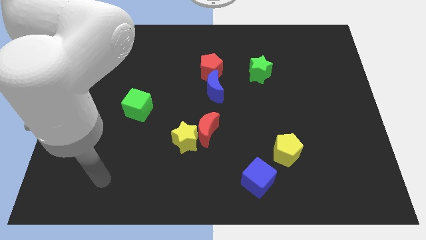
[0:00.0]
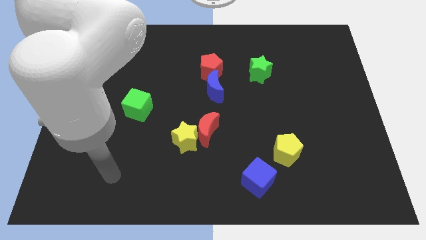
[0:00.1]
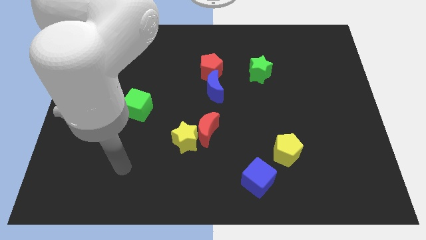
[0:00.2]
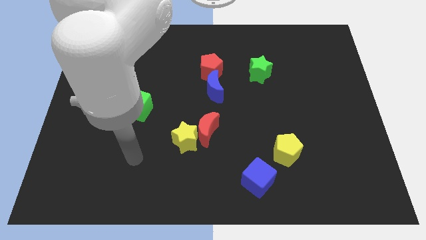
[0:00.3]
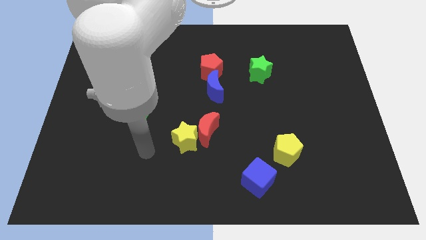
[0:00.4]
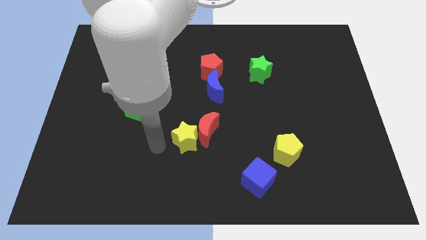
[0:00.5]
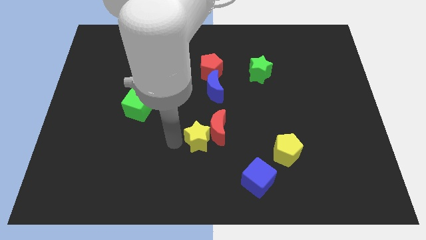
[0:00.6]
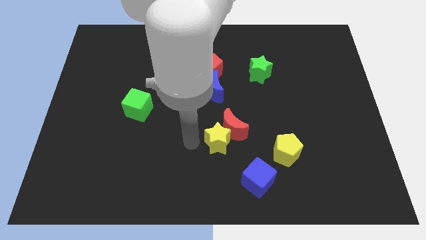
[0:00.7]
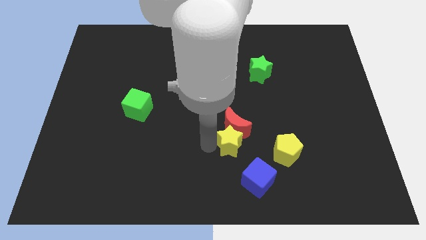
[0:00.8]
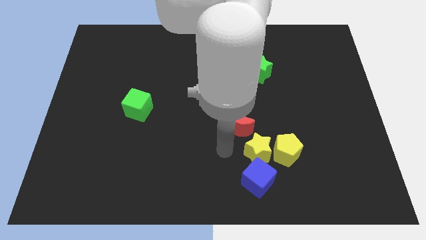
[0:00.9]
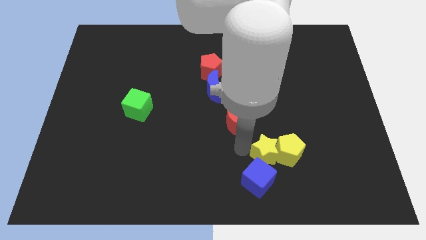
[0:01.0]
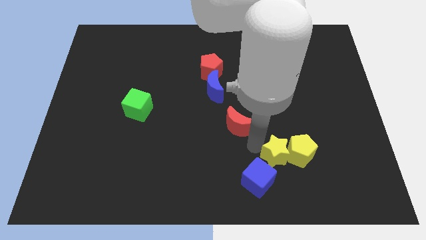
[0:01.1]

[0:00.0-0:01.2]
separate the red moon from the yellow star

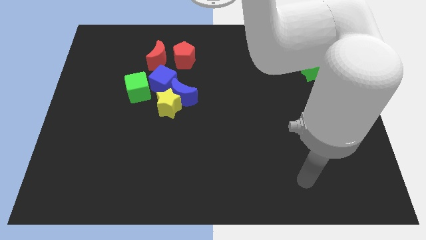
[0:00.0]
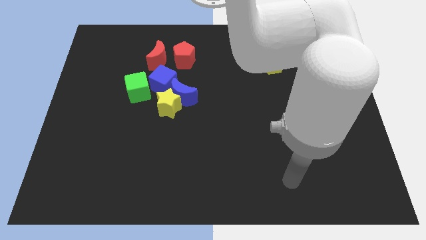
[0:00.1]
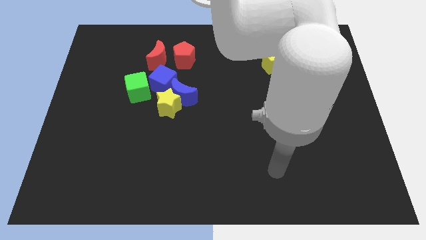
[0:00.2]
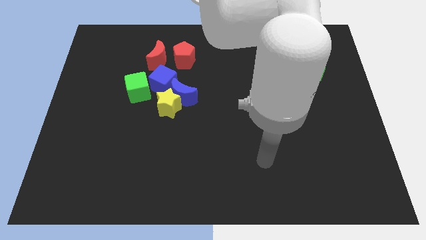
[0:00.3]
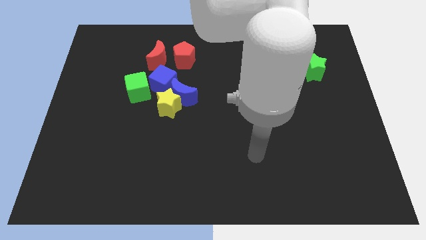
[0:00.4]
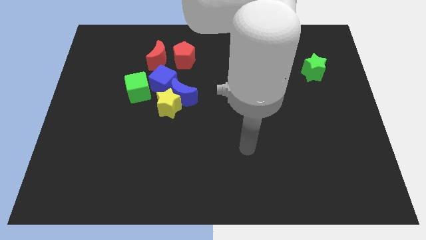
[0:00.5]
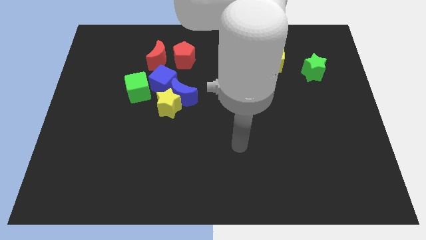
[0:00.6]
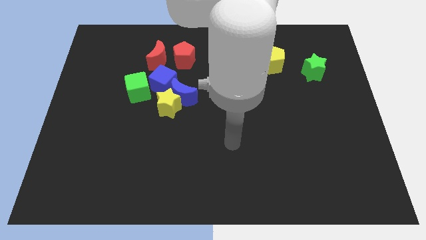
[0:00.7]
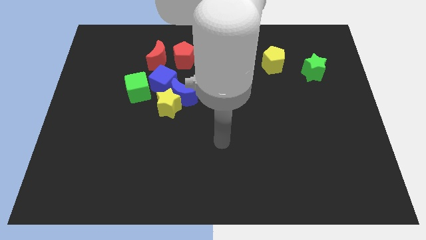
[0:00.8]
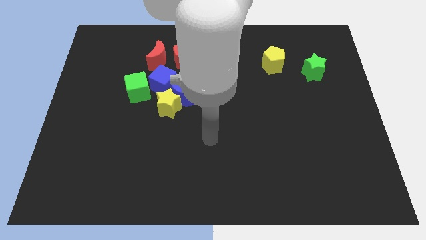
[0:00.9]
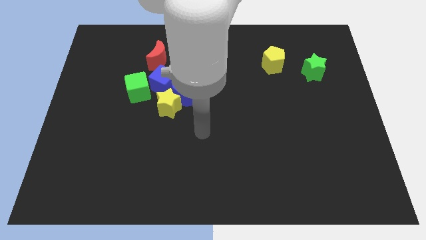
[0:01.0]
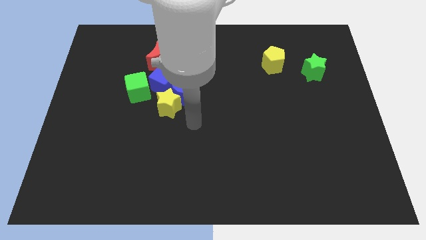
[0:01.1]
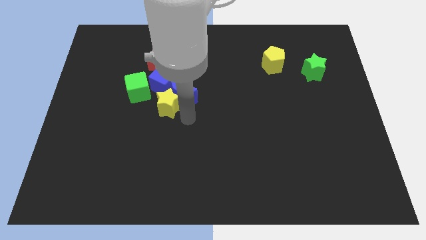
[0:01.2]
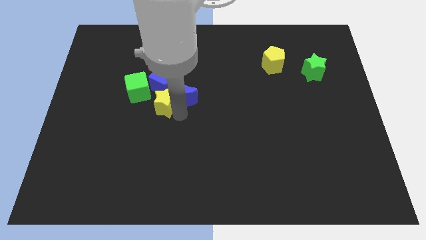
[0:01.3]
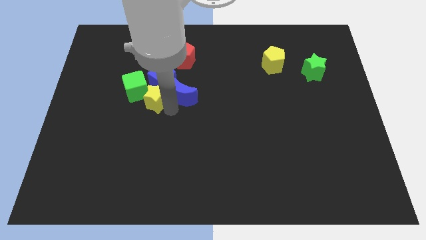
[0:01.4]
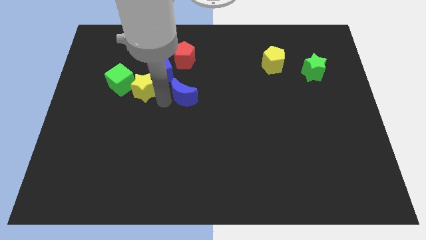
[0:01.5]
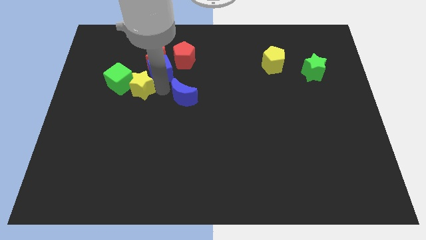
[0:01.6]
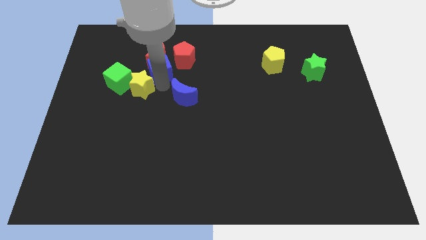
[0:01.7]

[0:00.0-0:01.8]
pull the blue moon apart from the yellow star and blue cube

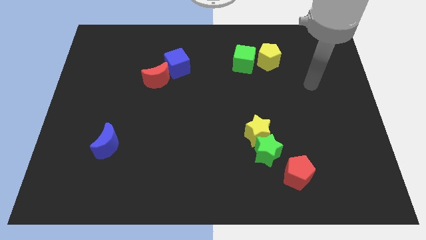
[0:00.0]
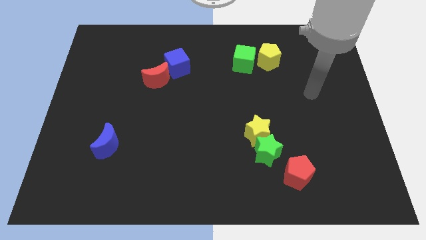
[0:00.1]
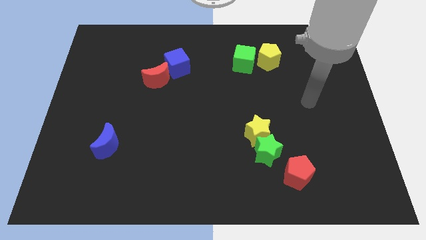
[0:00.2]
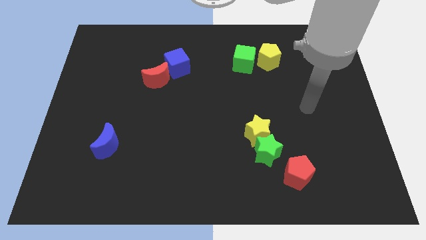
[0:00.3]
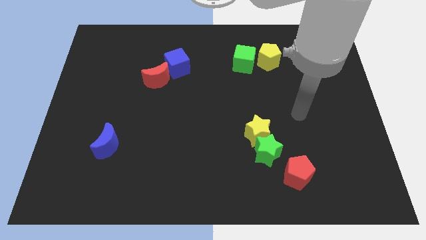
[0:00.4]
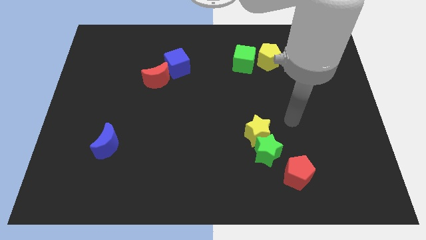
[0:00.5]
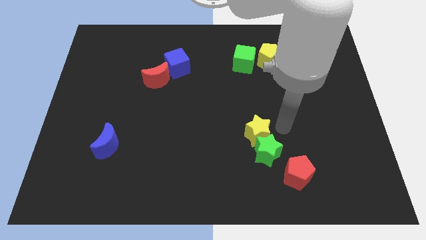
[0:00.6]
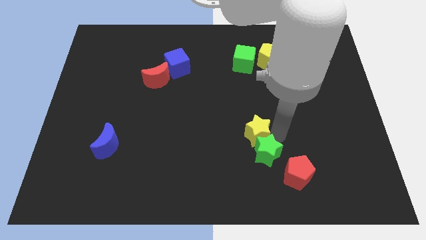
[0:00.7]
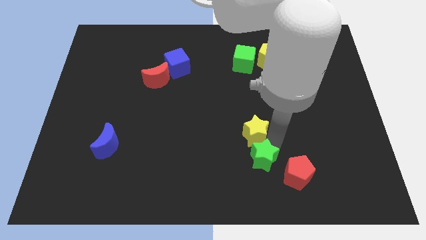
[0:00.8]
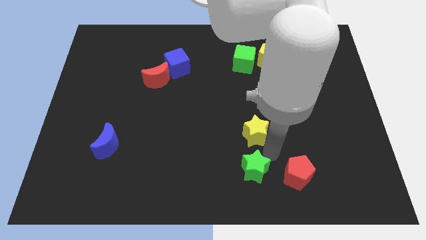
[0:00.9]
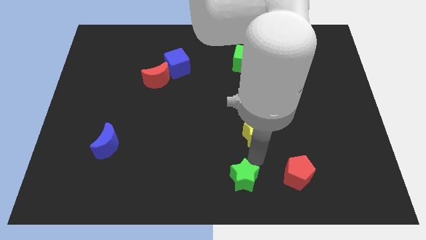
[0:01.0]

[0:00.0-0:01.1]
separate the yellow star from the green star

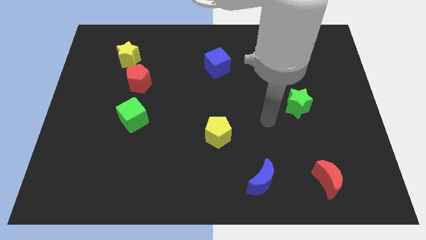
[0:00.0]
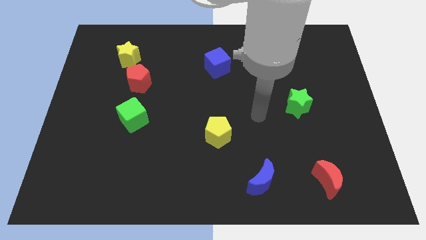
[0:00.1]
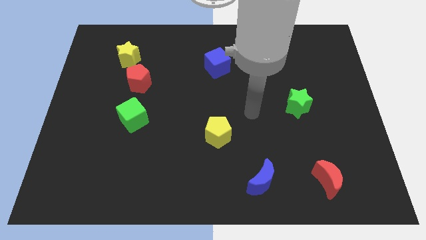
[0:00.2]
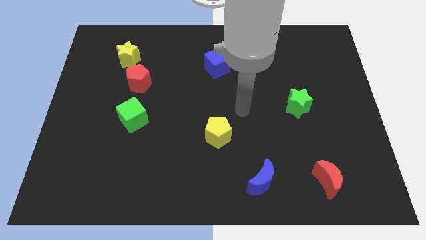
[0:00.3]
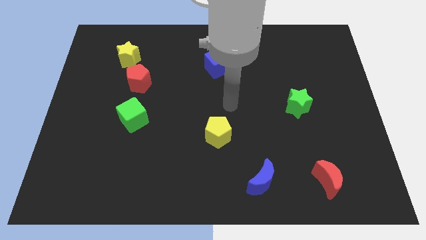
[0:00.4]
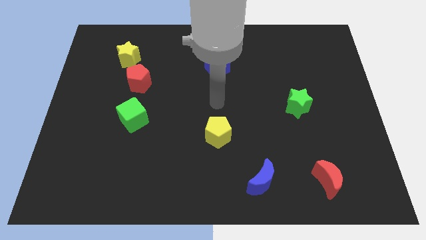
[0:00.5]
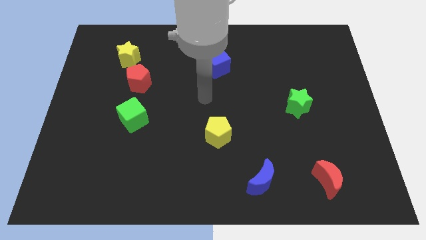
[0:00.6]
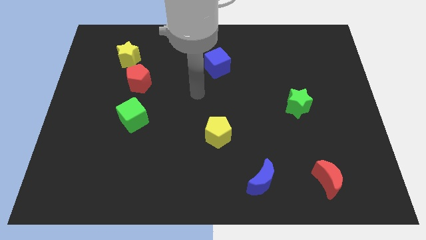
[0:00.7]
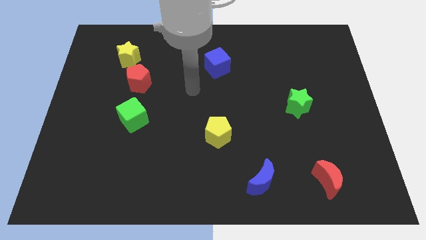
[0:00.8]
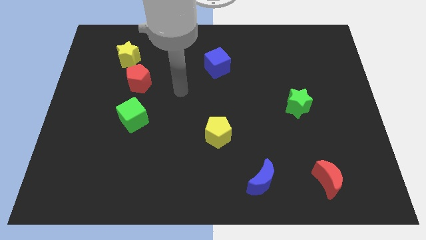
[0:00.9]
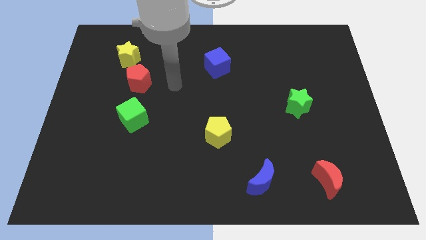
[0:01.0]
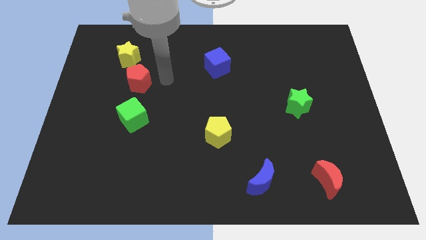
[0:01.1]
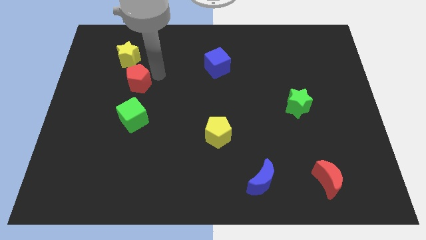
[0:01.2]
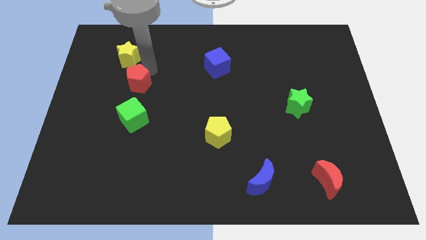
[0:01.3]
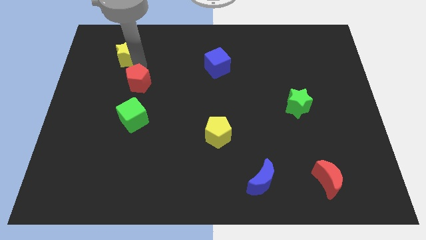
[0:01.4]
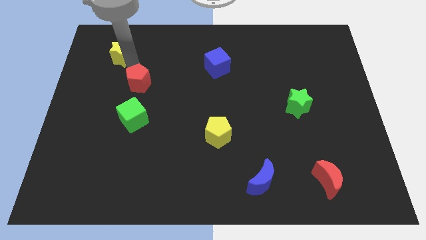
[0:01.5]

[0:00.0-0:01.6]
separate the red pentagon from the yellow star

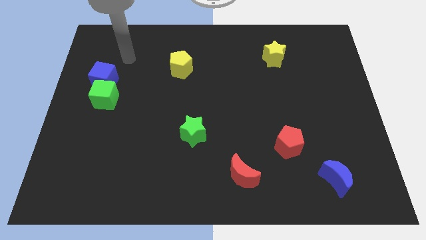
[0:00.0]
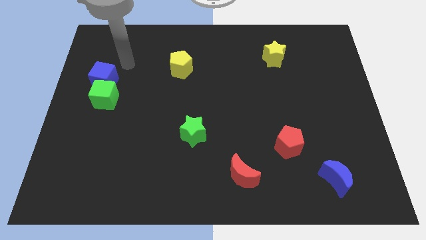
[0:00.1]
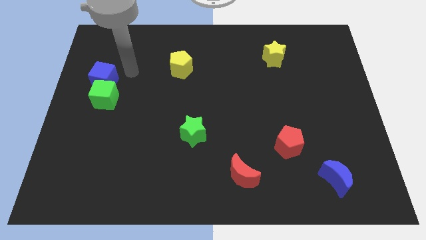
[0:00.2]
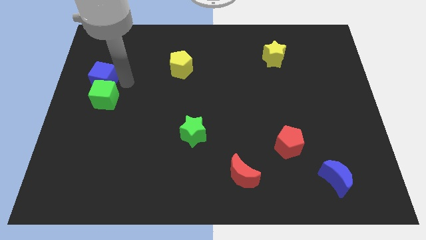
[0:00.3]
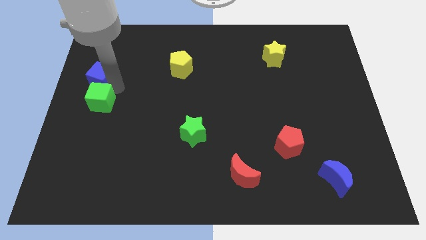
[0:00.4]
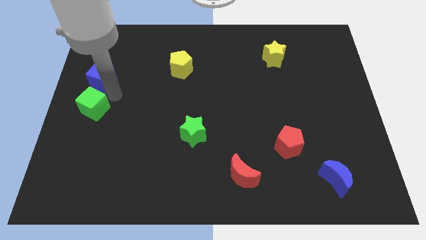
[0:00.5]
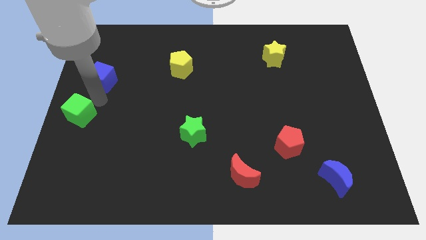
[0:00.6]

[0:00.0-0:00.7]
move the blue cube away from the green cube

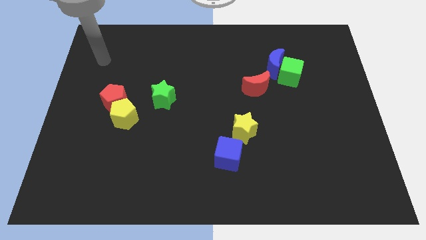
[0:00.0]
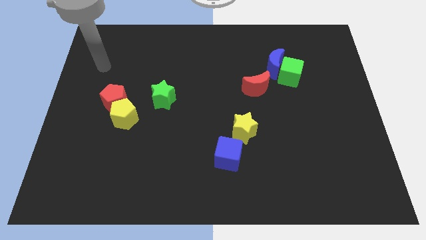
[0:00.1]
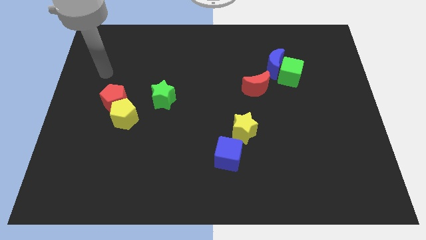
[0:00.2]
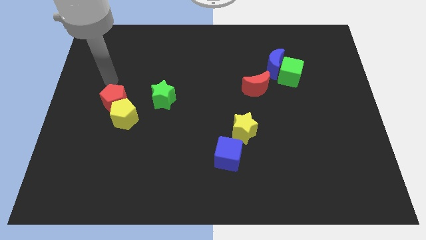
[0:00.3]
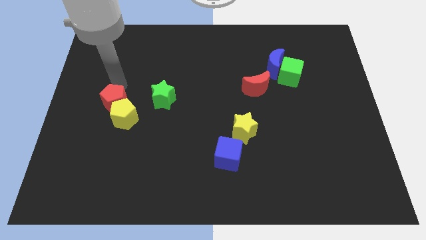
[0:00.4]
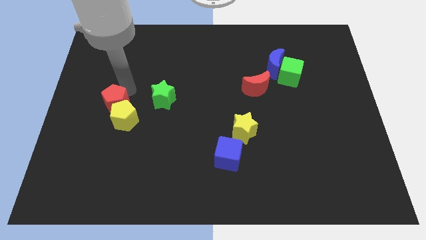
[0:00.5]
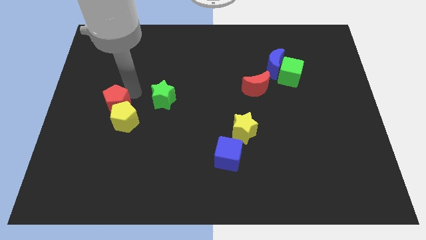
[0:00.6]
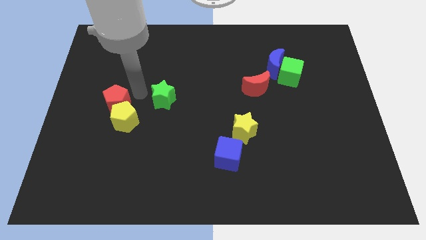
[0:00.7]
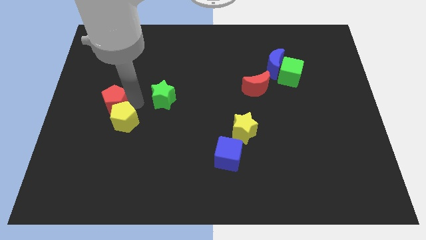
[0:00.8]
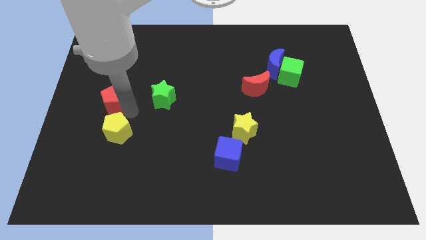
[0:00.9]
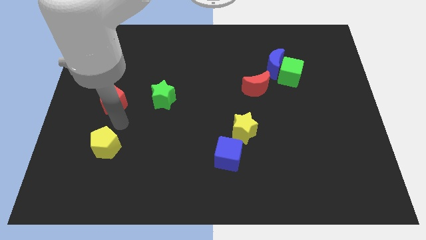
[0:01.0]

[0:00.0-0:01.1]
separate the red pentagon from the yellow pentagon

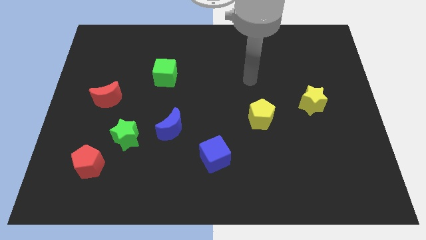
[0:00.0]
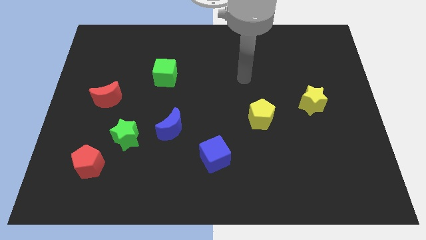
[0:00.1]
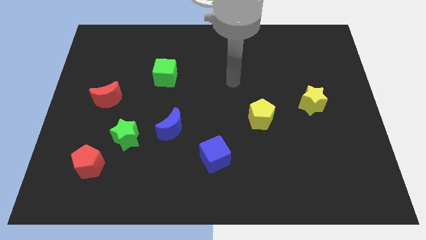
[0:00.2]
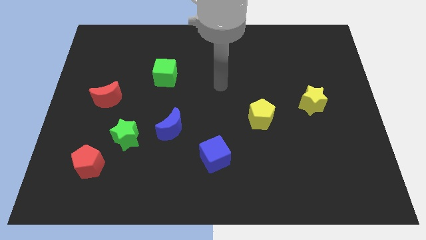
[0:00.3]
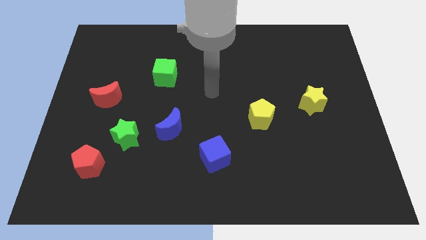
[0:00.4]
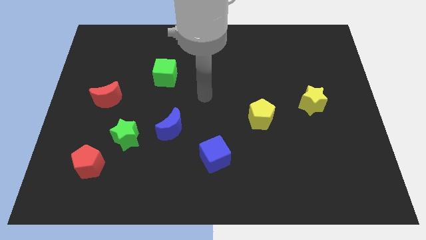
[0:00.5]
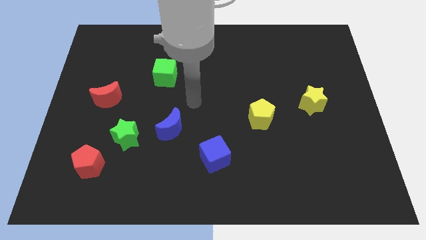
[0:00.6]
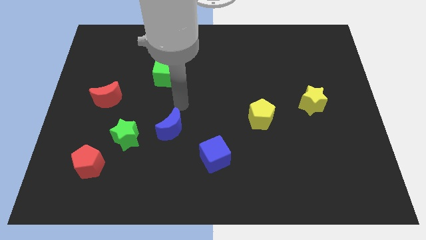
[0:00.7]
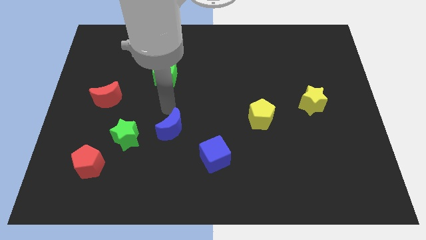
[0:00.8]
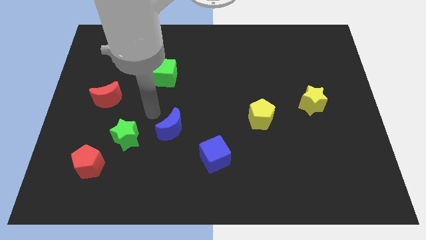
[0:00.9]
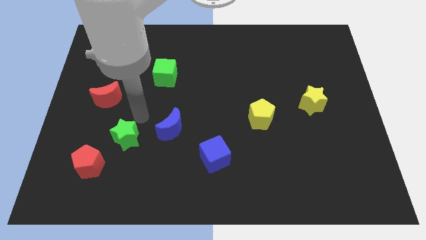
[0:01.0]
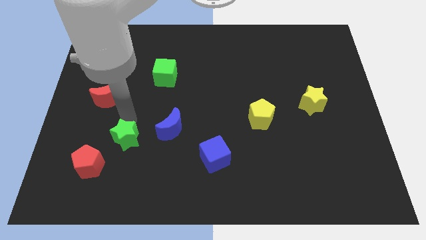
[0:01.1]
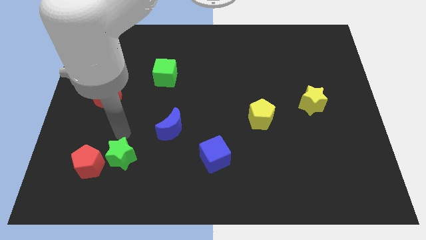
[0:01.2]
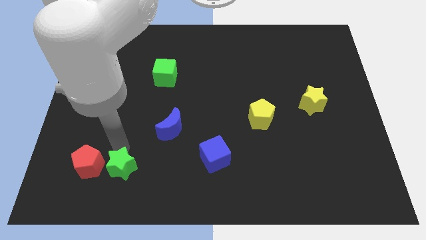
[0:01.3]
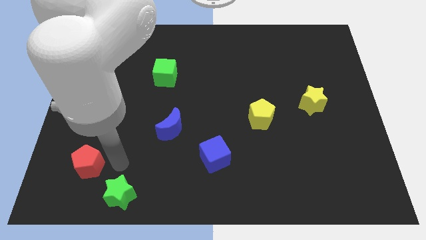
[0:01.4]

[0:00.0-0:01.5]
separate the red pentagon from the green star

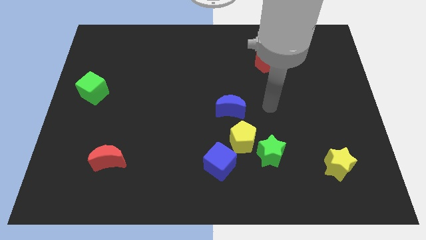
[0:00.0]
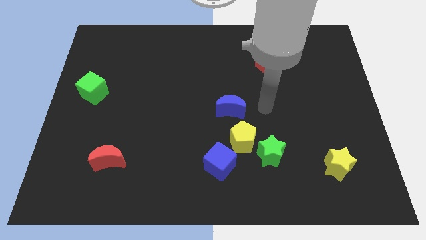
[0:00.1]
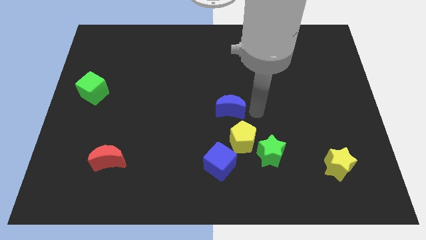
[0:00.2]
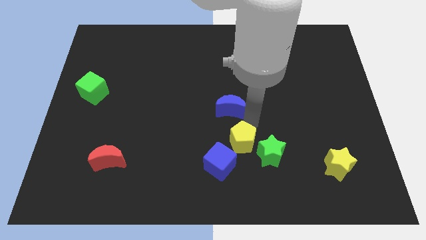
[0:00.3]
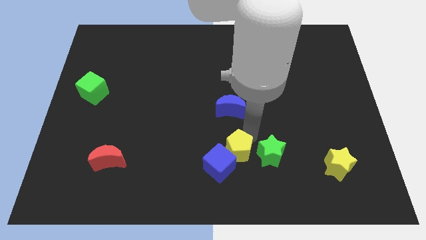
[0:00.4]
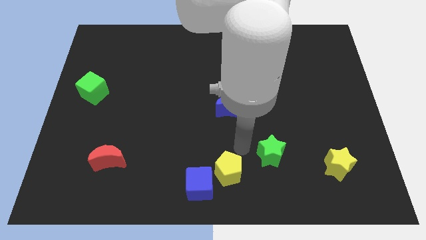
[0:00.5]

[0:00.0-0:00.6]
move the green star away from the yellow pentagon
